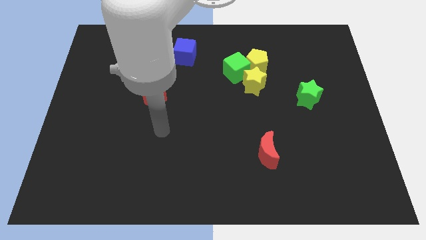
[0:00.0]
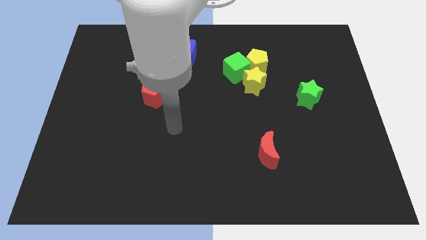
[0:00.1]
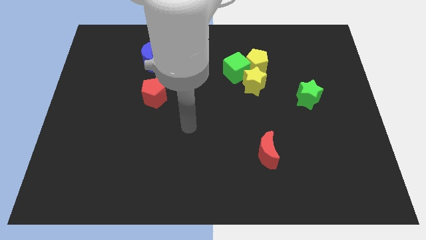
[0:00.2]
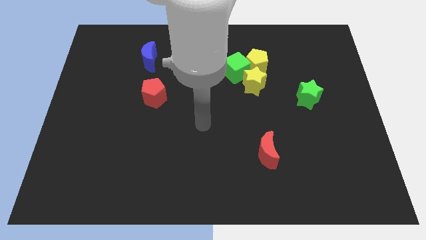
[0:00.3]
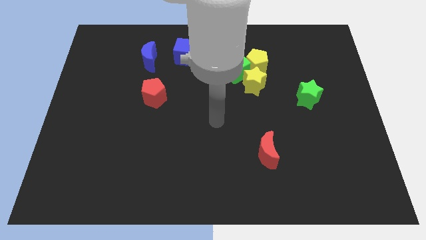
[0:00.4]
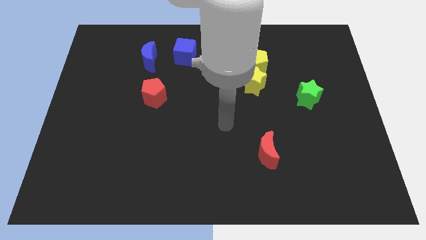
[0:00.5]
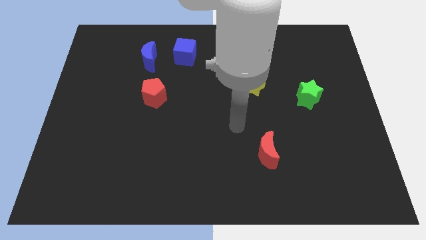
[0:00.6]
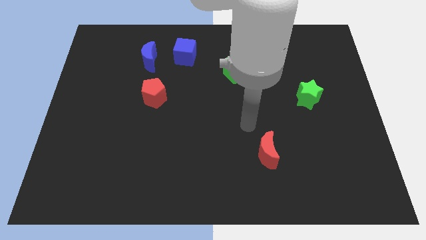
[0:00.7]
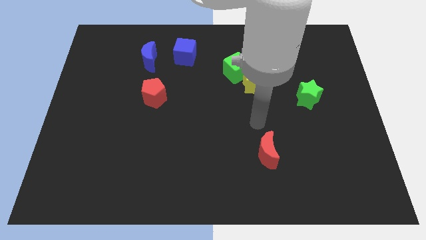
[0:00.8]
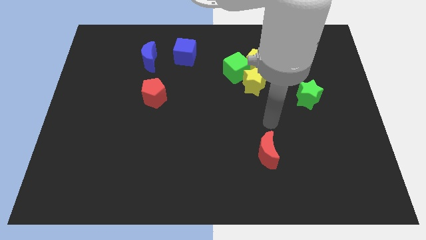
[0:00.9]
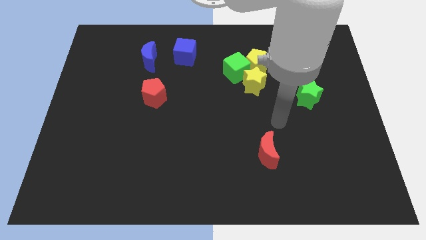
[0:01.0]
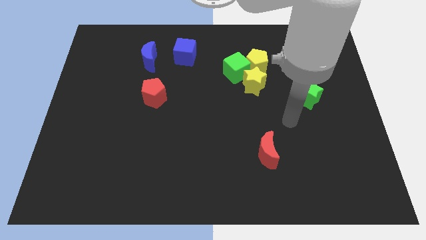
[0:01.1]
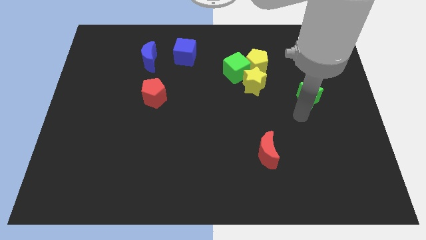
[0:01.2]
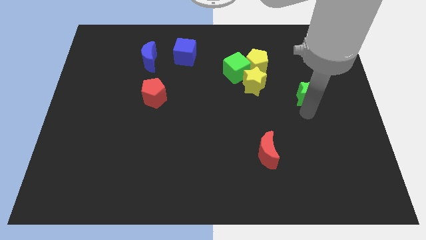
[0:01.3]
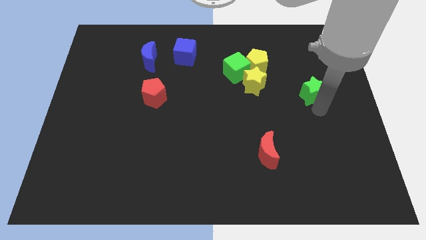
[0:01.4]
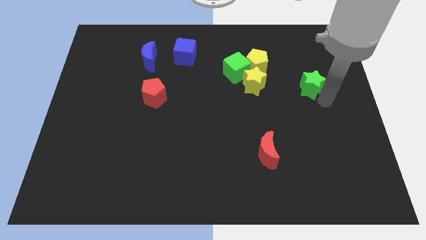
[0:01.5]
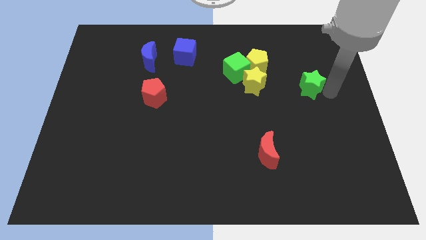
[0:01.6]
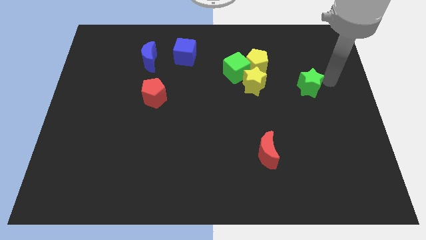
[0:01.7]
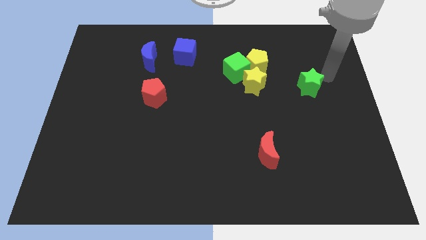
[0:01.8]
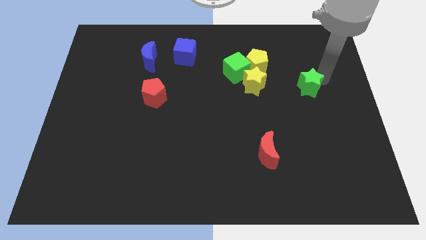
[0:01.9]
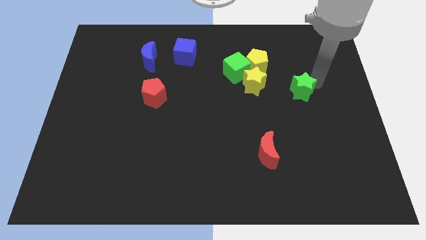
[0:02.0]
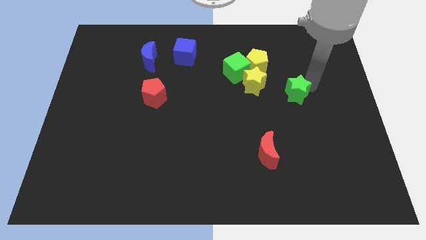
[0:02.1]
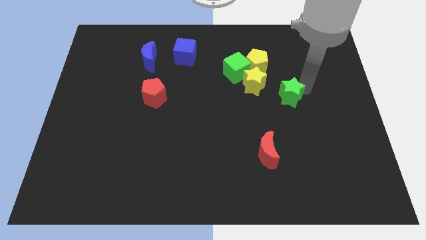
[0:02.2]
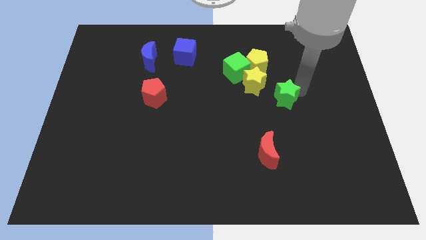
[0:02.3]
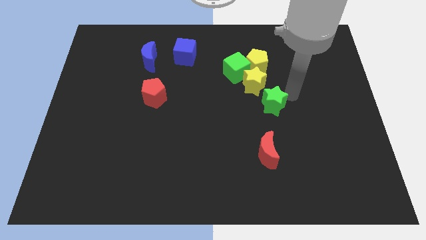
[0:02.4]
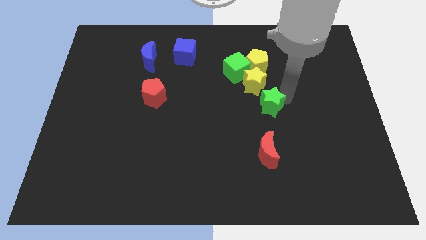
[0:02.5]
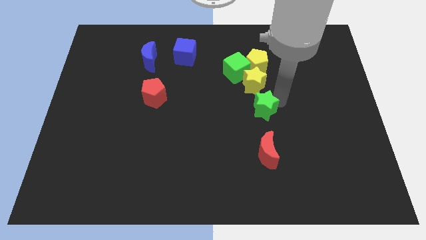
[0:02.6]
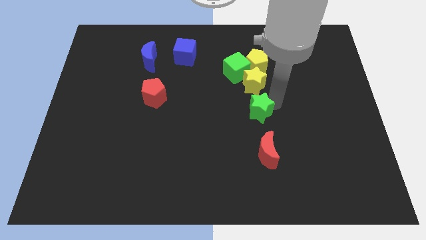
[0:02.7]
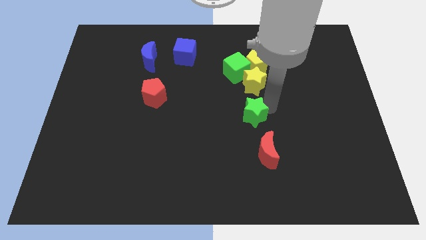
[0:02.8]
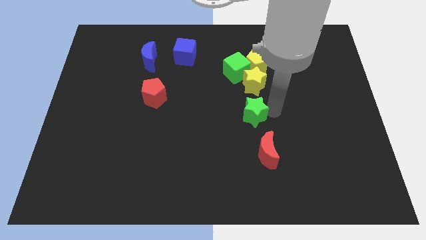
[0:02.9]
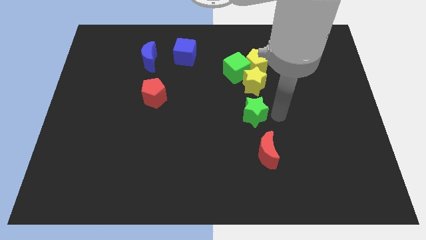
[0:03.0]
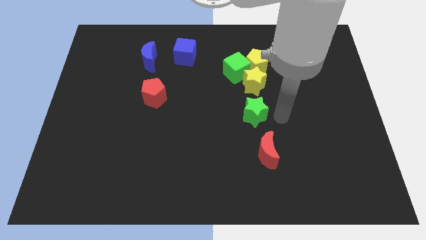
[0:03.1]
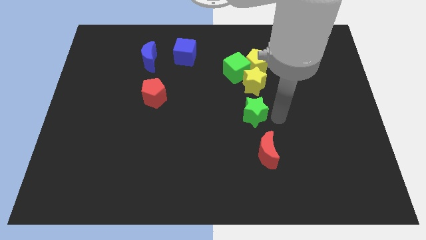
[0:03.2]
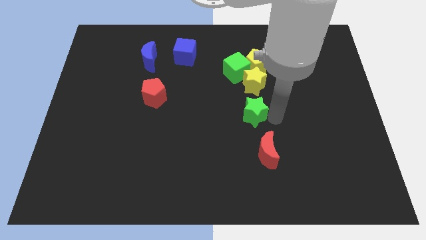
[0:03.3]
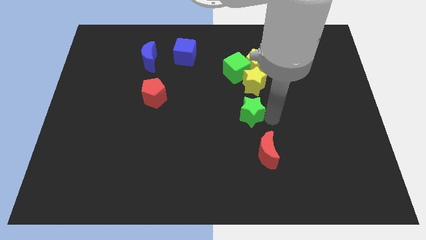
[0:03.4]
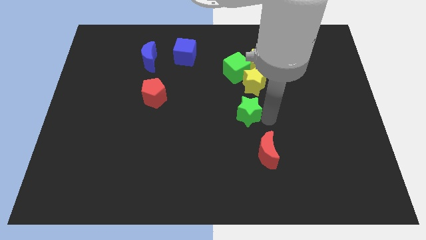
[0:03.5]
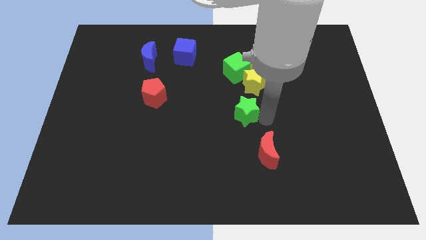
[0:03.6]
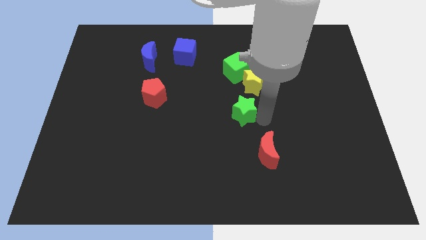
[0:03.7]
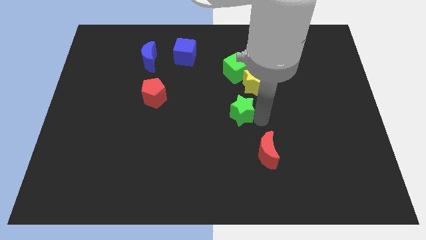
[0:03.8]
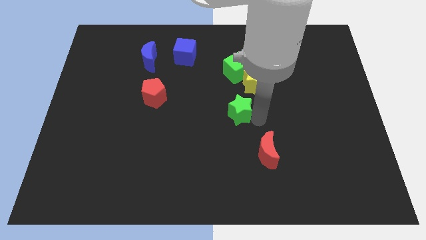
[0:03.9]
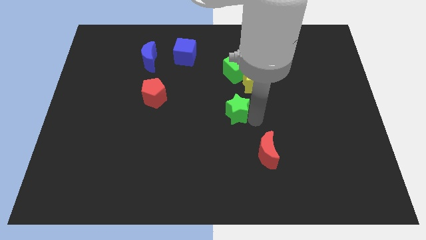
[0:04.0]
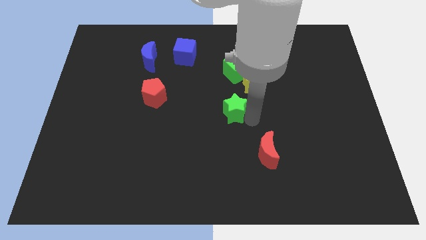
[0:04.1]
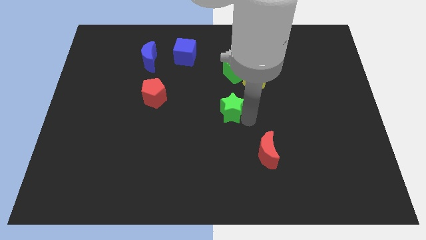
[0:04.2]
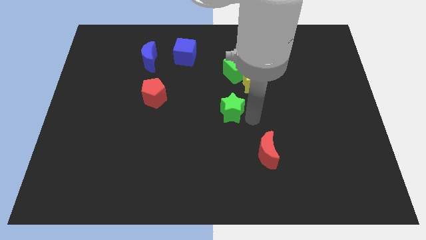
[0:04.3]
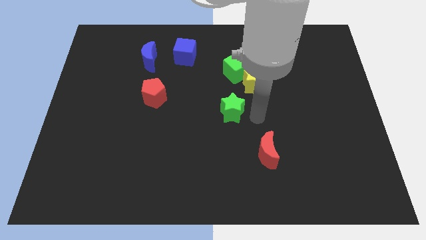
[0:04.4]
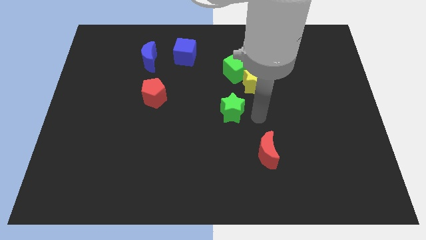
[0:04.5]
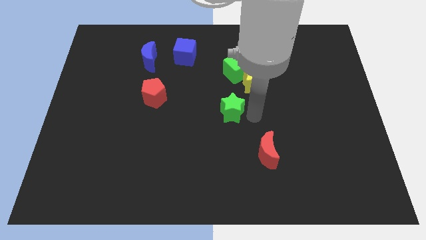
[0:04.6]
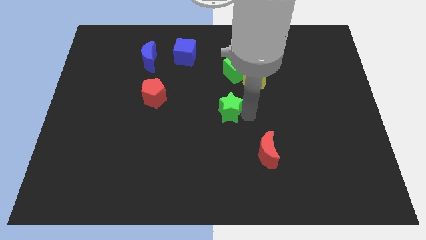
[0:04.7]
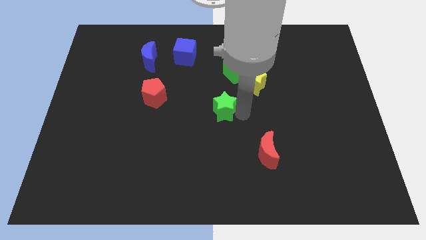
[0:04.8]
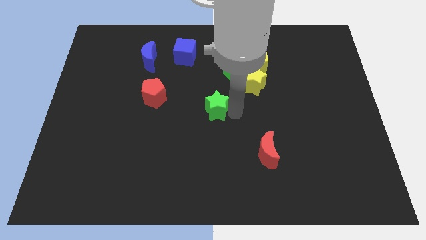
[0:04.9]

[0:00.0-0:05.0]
move the green star left

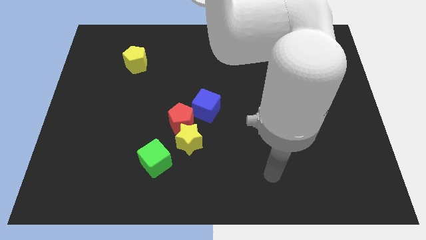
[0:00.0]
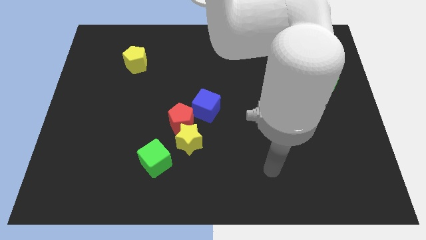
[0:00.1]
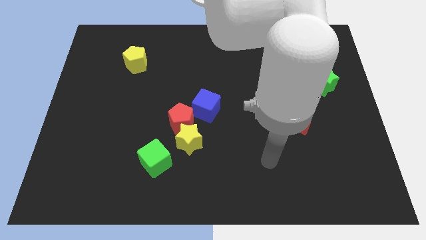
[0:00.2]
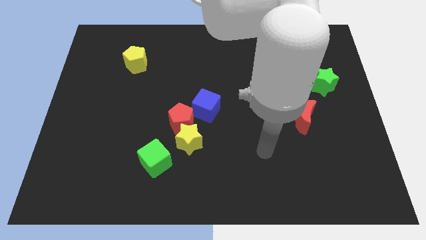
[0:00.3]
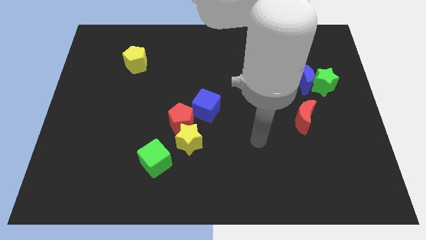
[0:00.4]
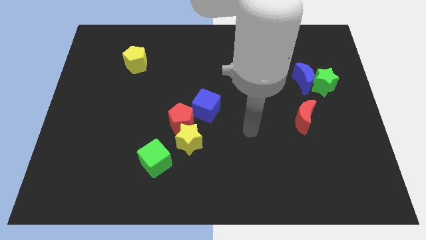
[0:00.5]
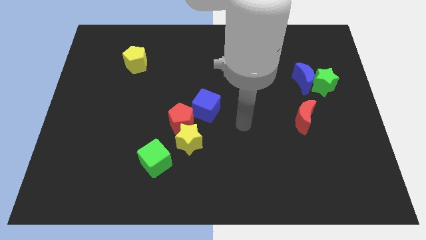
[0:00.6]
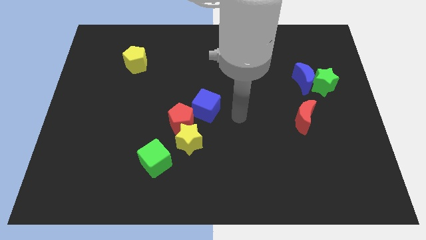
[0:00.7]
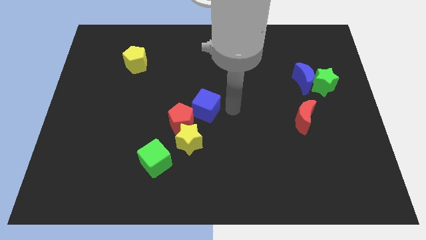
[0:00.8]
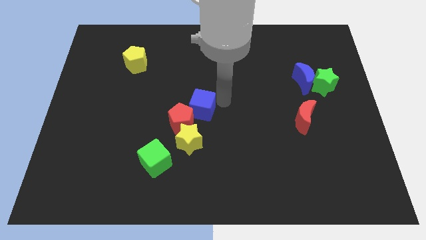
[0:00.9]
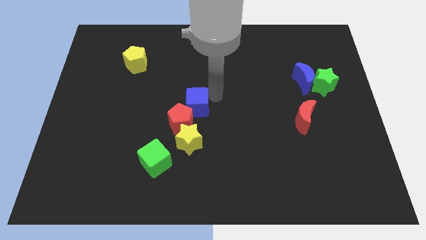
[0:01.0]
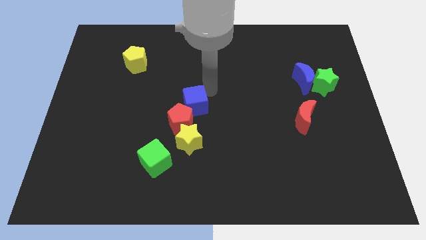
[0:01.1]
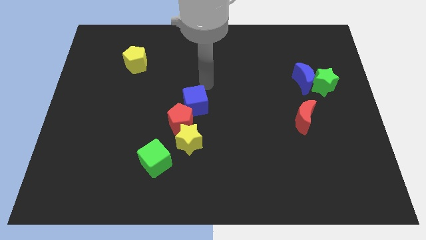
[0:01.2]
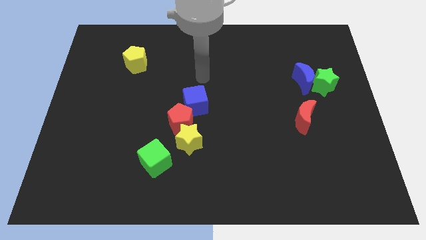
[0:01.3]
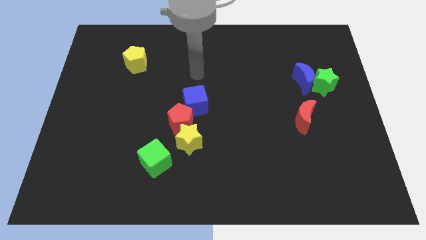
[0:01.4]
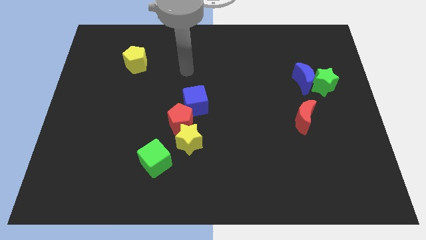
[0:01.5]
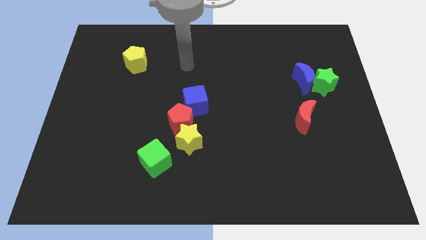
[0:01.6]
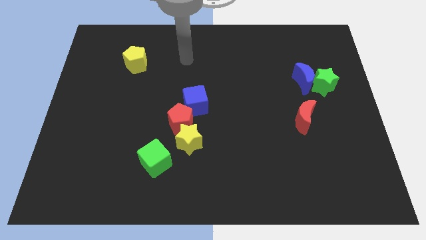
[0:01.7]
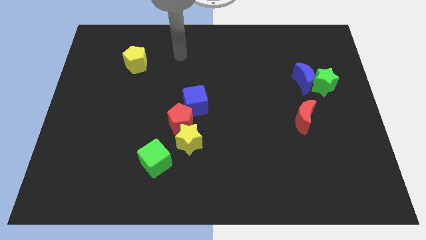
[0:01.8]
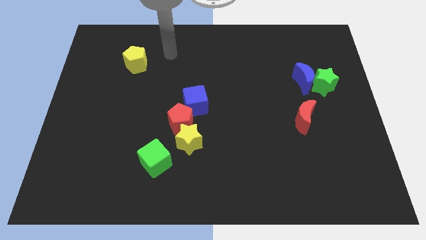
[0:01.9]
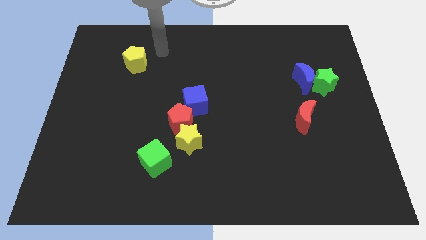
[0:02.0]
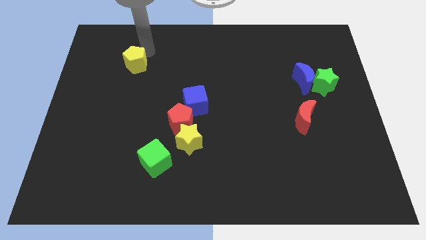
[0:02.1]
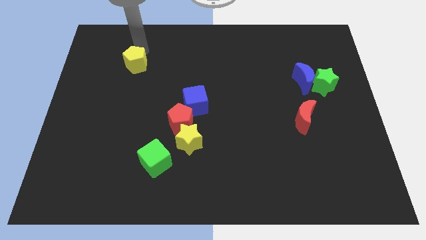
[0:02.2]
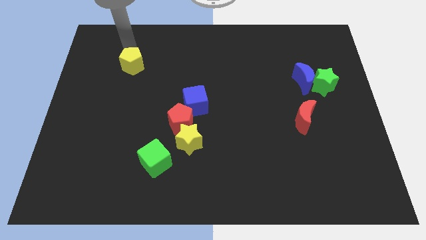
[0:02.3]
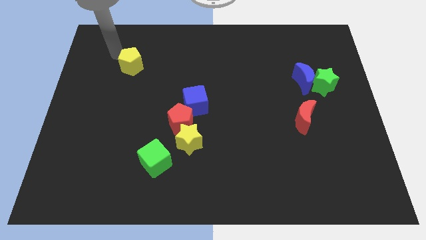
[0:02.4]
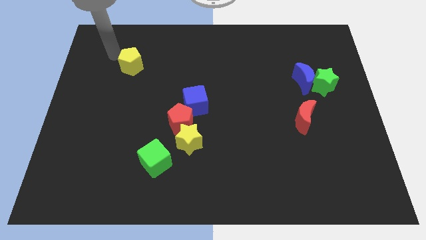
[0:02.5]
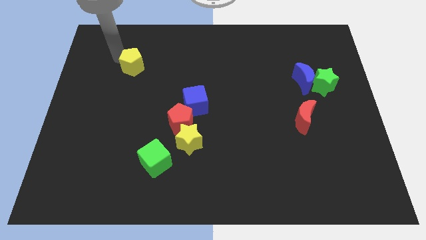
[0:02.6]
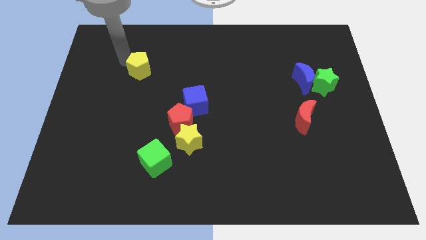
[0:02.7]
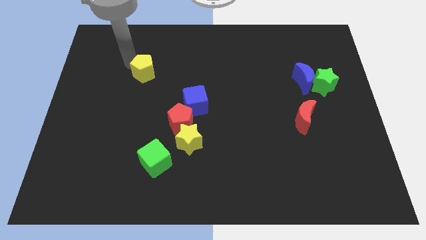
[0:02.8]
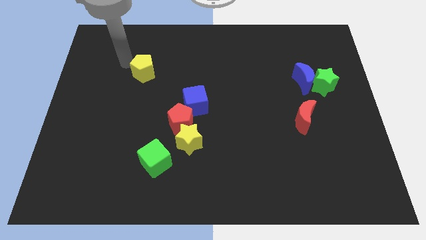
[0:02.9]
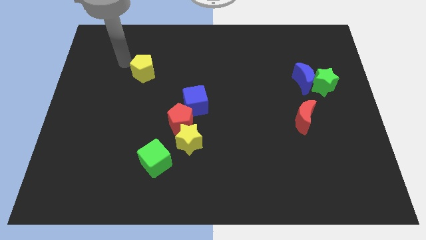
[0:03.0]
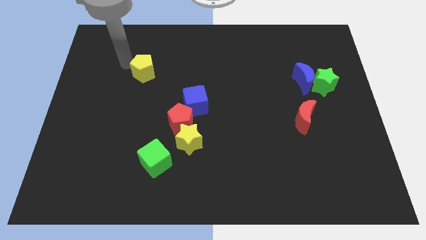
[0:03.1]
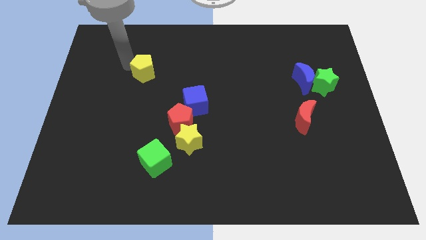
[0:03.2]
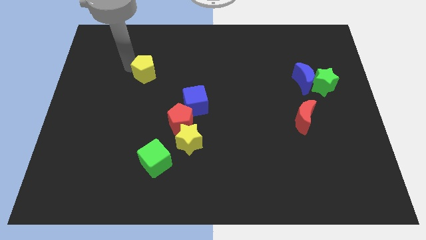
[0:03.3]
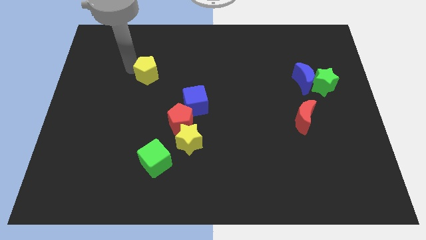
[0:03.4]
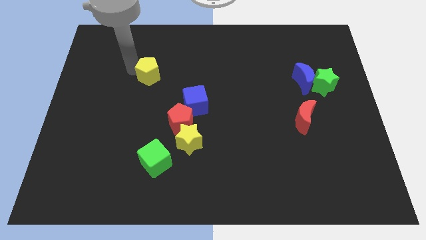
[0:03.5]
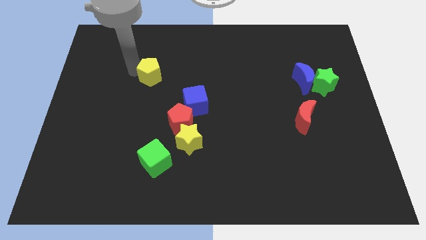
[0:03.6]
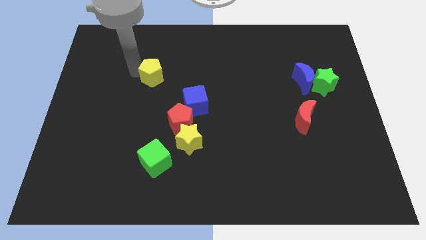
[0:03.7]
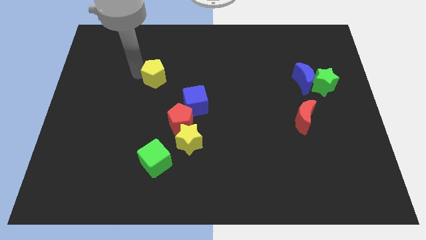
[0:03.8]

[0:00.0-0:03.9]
slightly push the yellow pentagon down and then to the right
